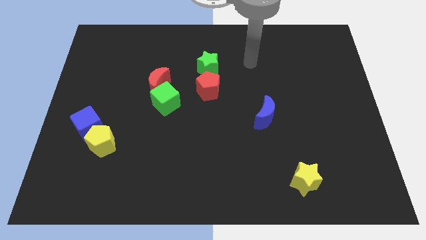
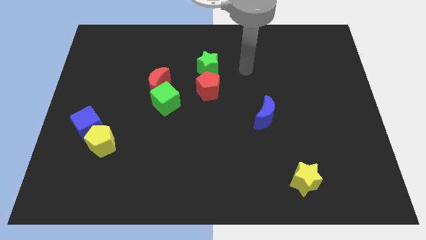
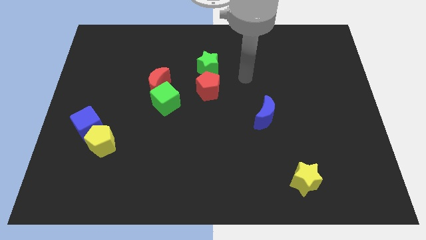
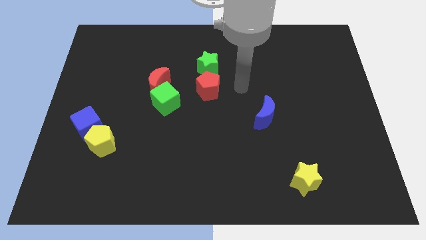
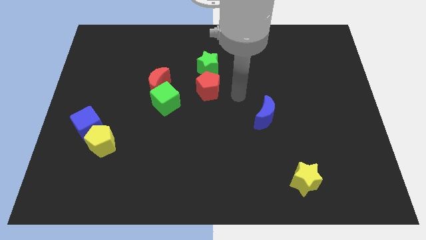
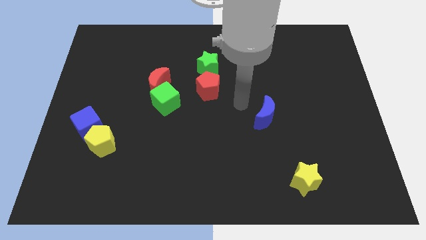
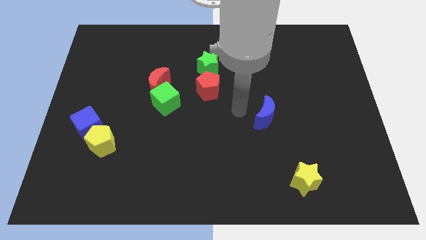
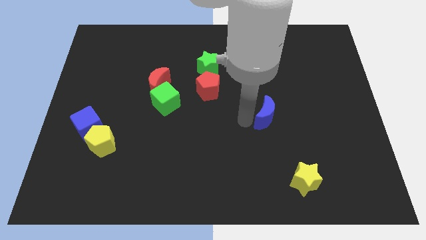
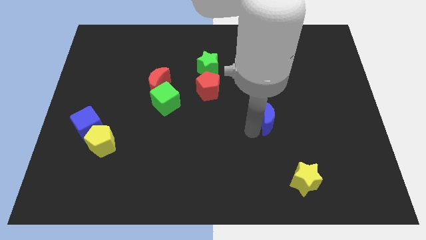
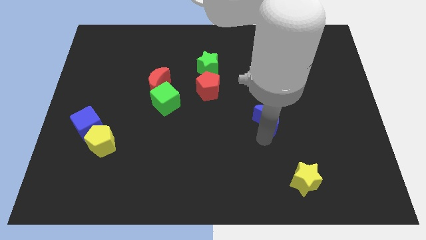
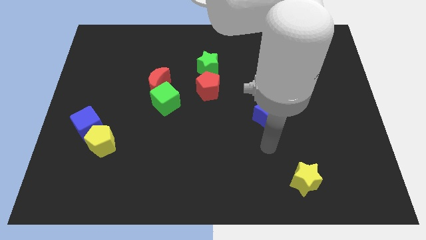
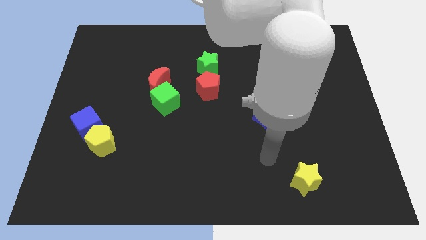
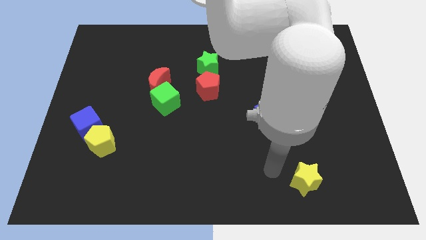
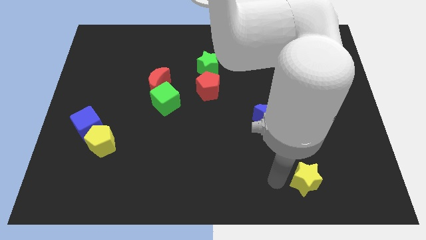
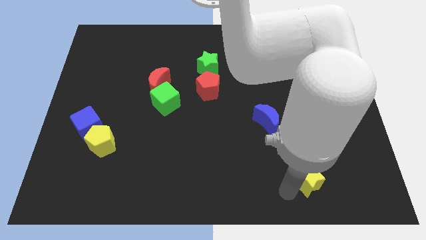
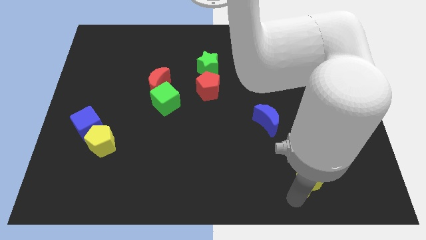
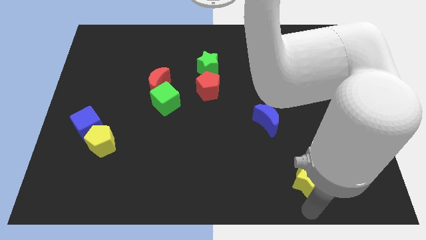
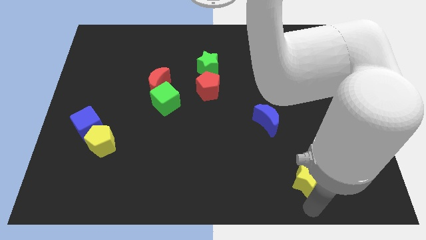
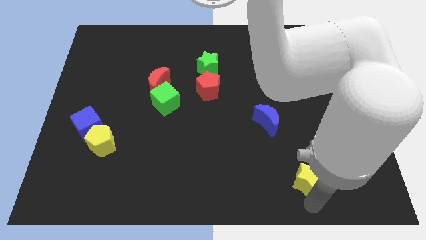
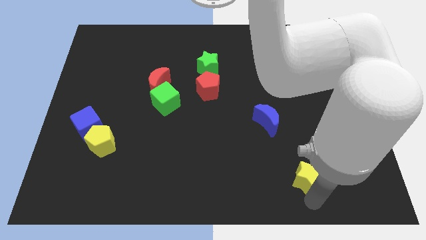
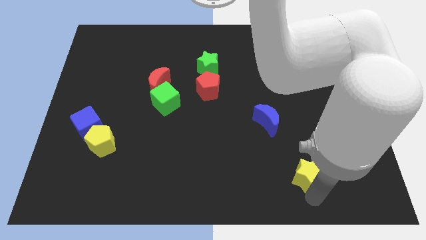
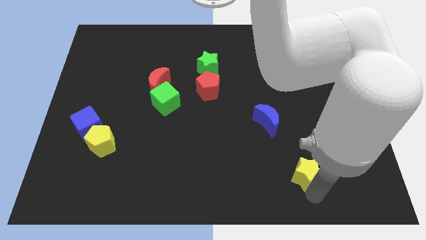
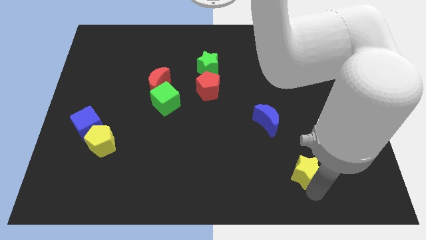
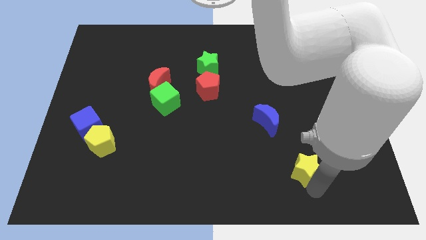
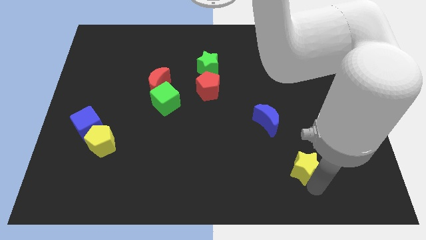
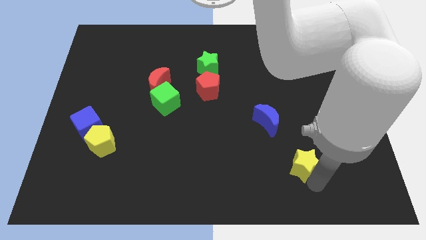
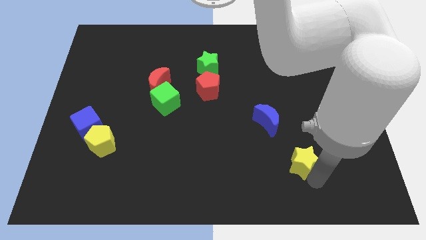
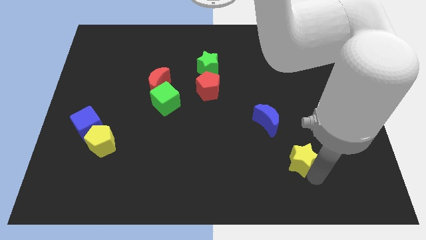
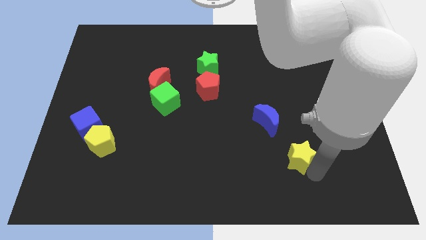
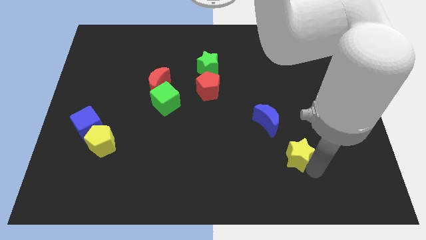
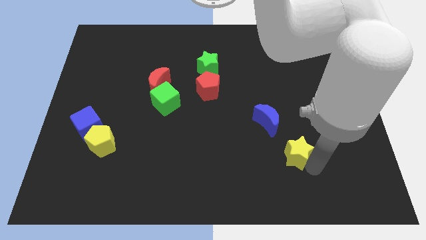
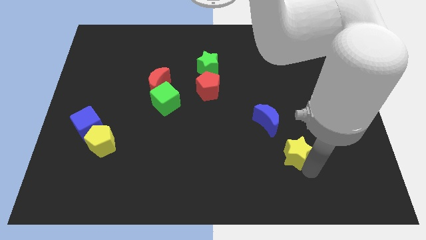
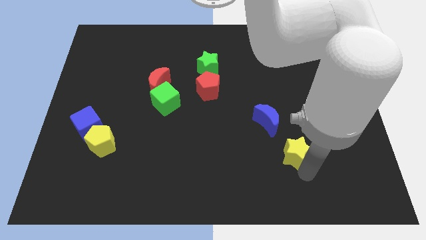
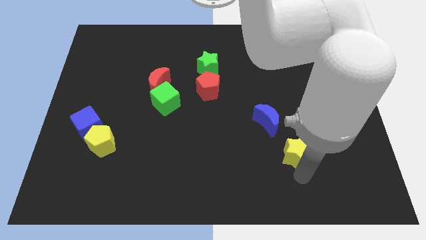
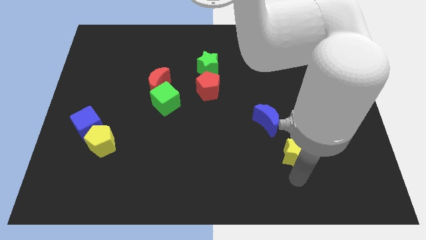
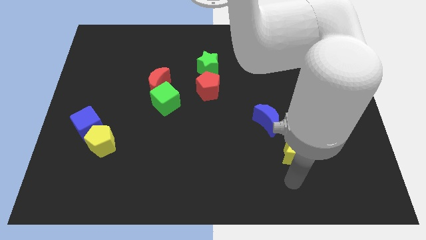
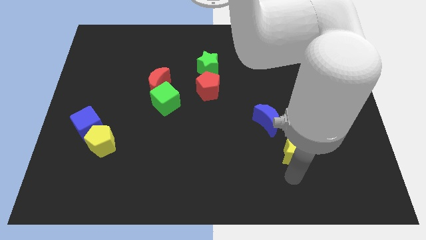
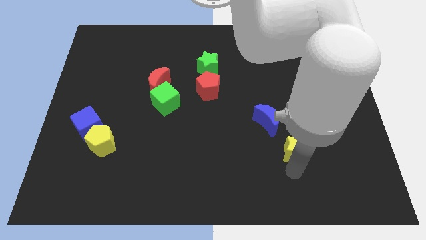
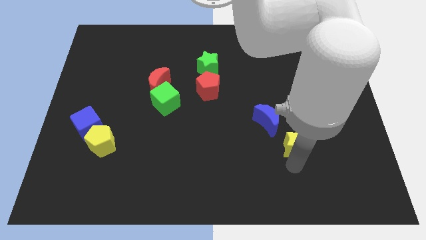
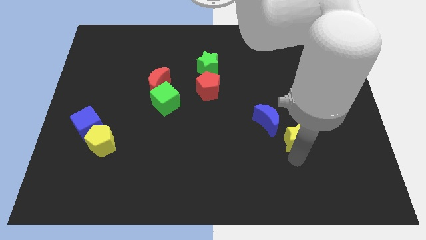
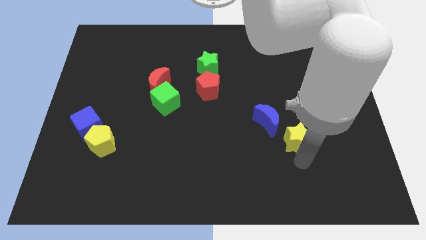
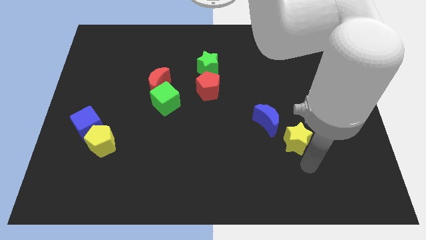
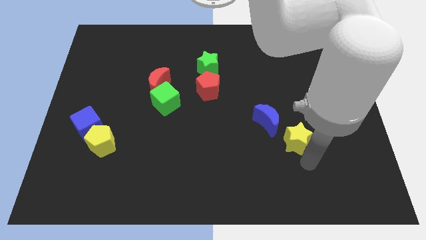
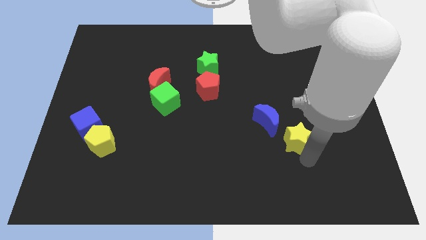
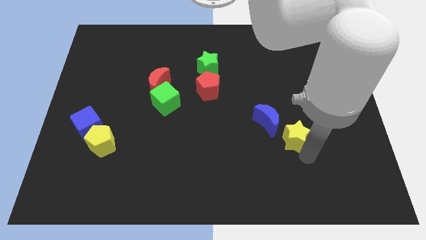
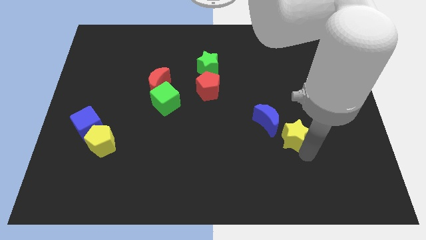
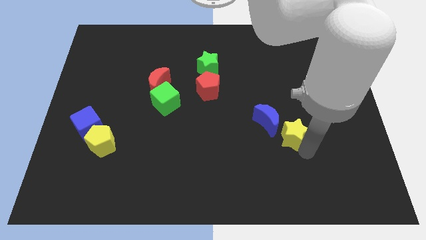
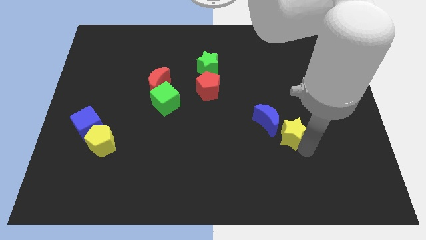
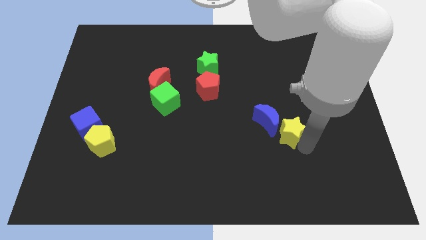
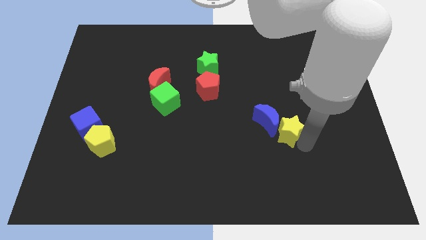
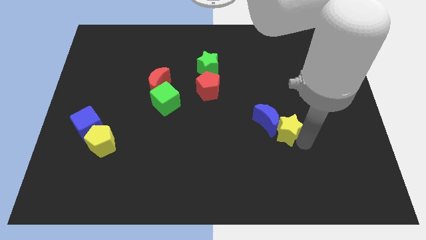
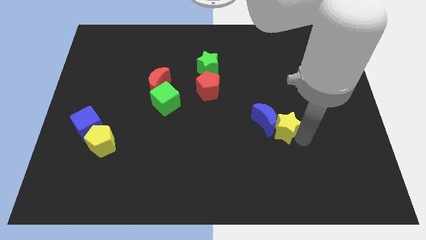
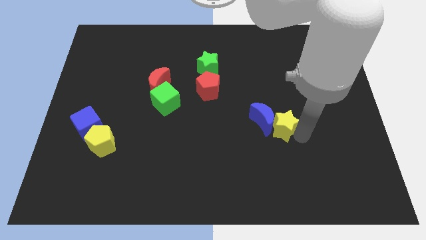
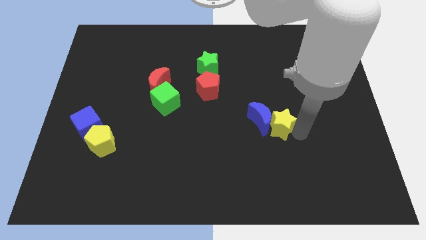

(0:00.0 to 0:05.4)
put the yellow star diagonally up and to the right of the blue moon

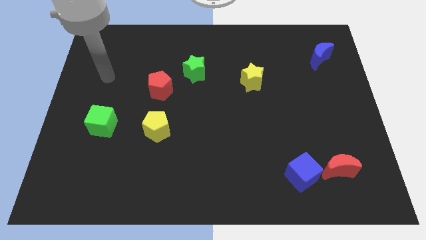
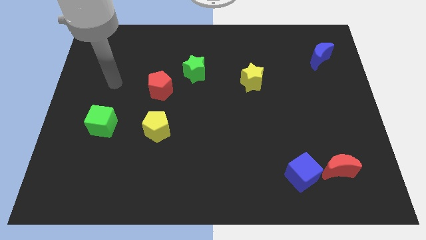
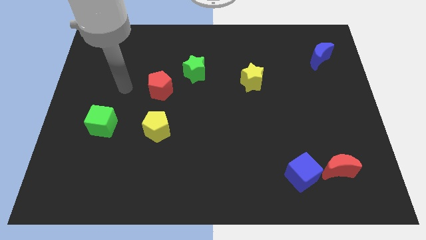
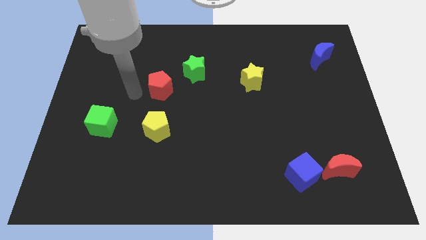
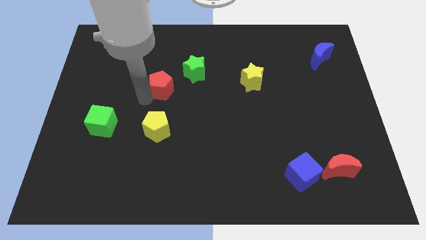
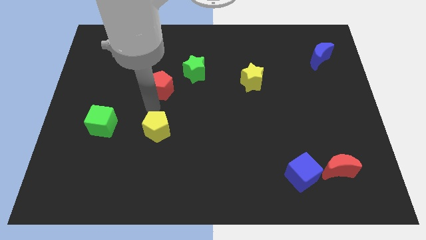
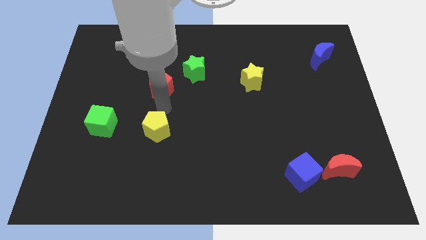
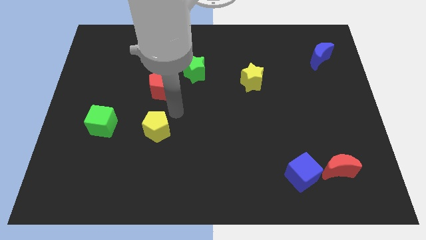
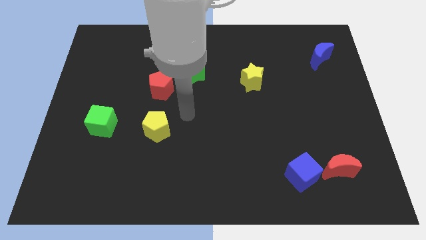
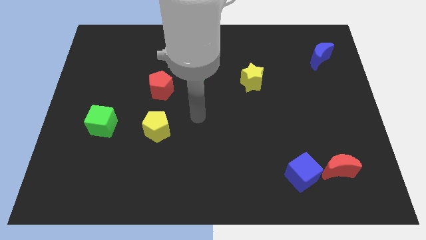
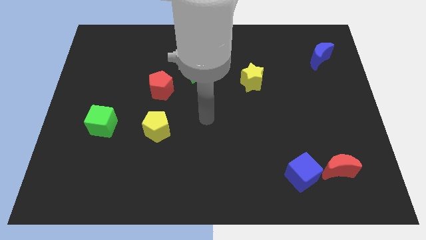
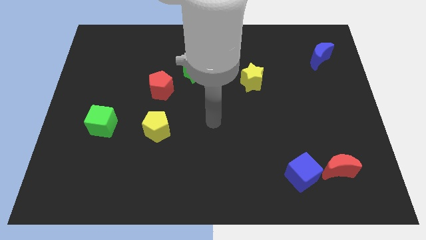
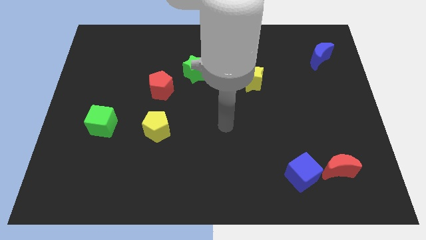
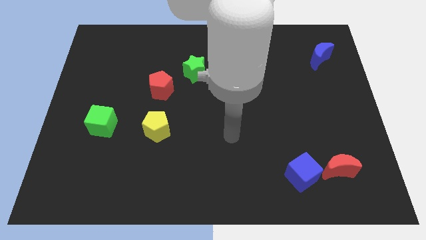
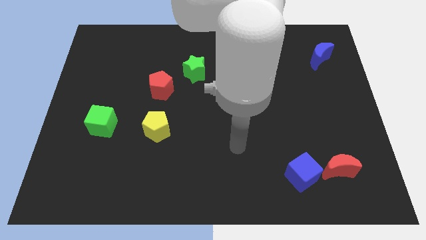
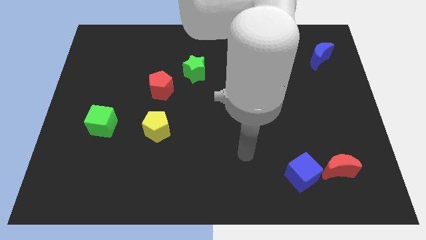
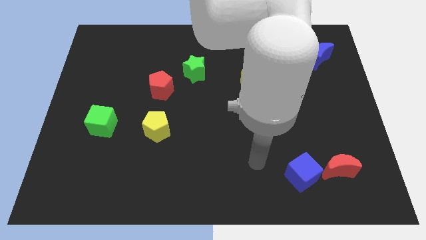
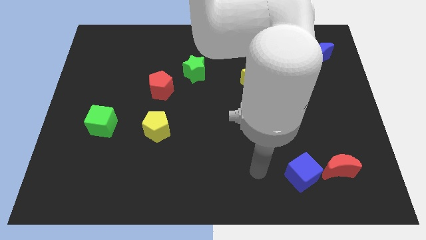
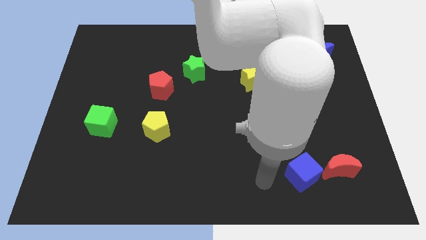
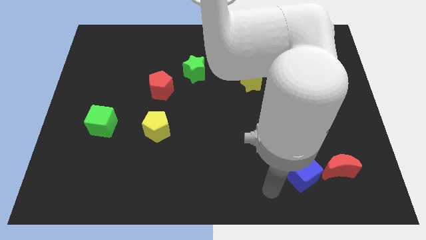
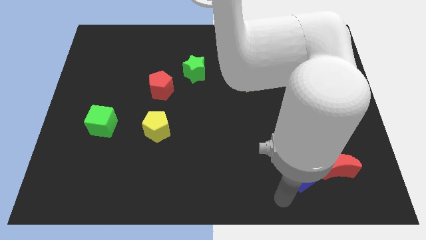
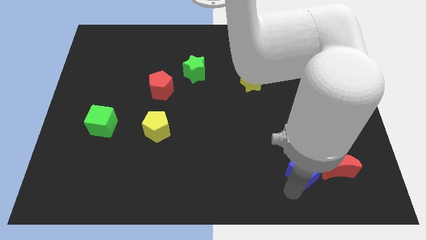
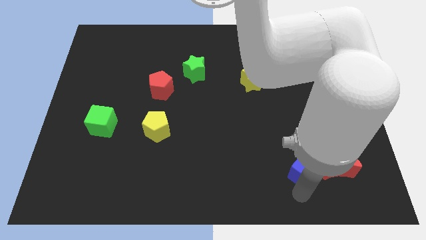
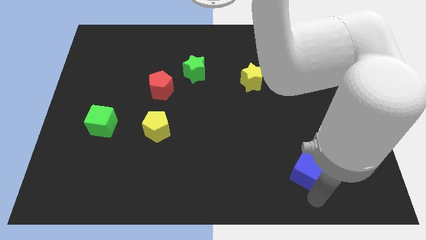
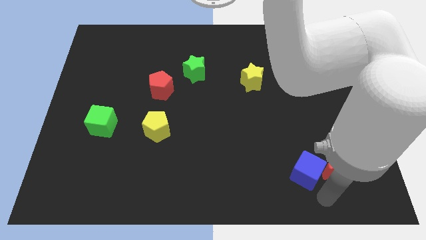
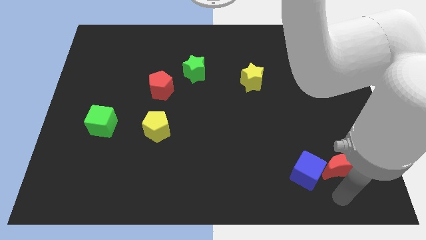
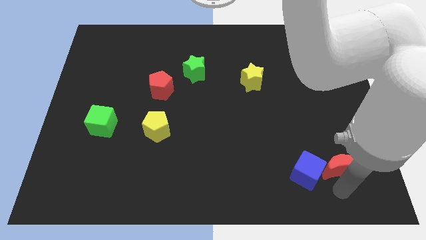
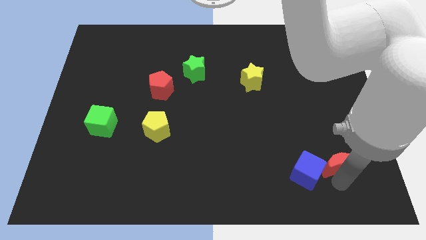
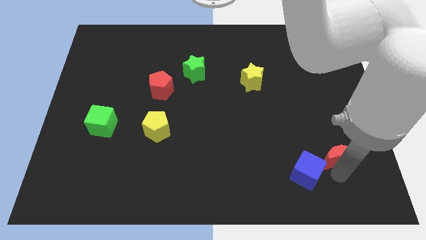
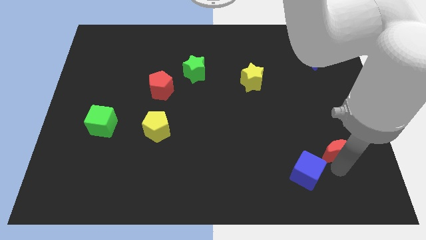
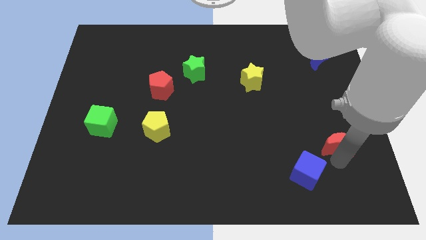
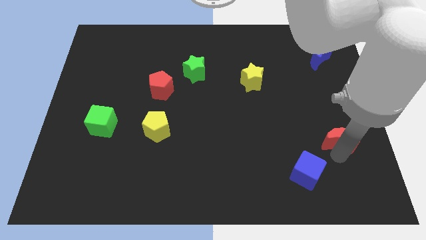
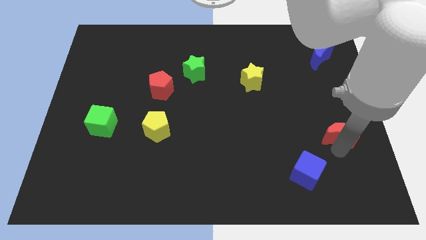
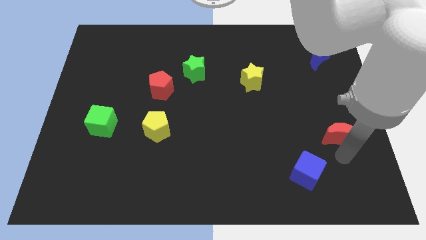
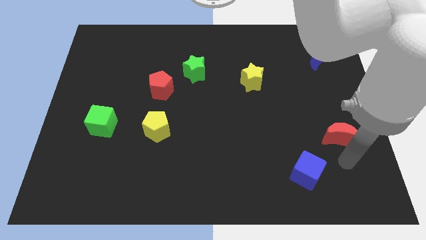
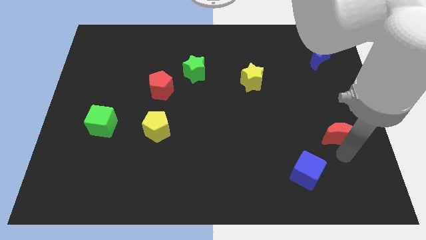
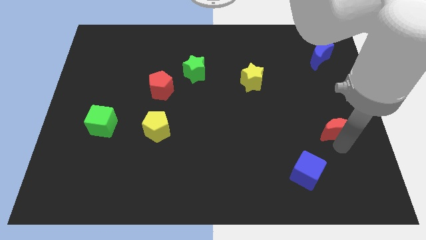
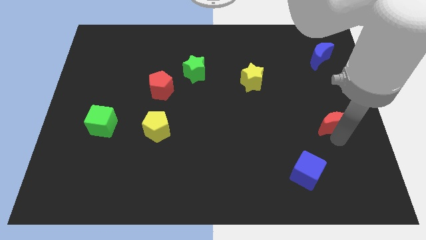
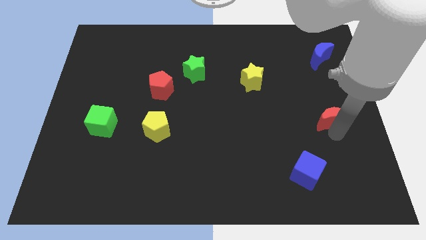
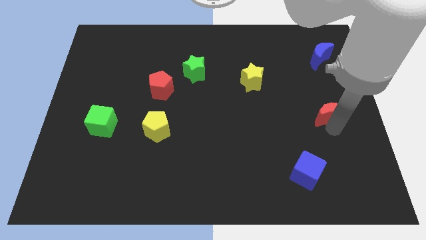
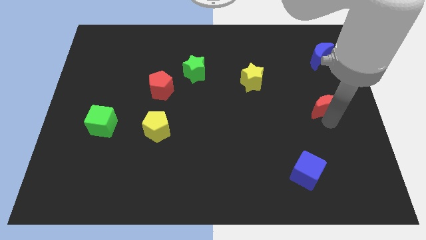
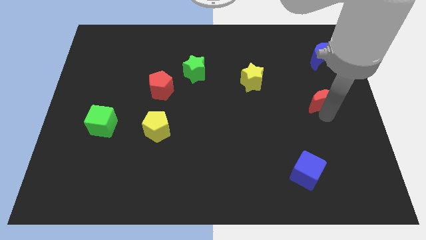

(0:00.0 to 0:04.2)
slide the red moon to the bottom of the blue moon
